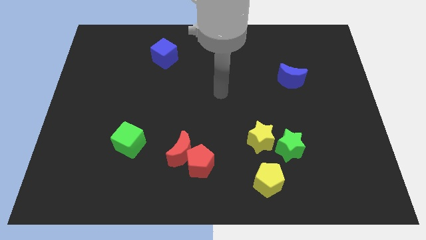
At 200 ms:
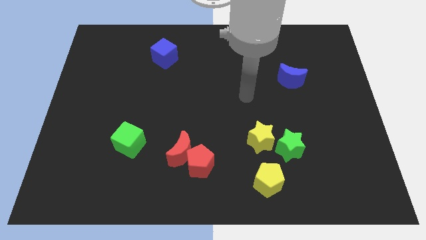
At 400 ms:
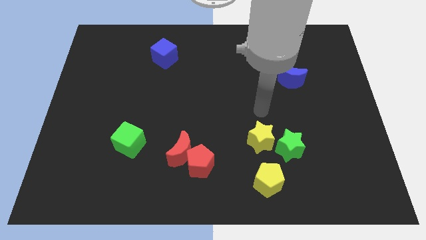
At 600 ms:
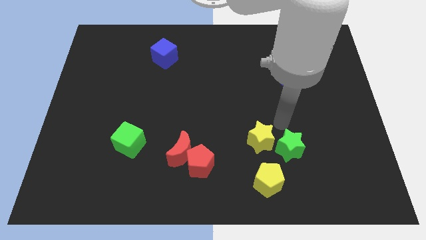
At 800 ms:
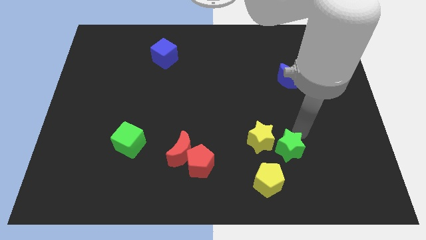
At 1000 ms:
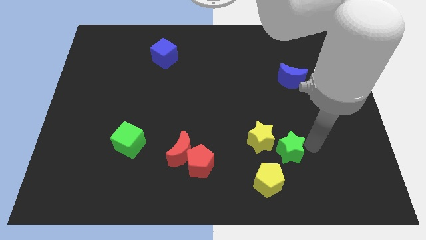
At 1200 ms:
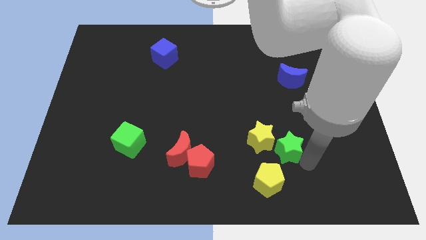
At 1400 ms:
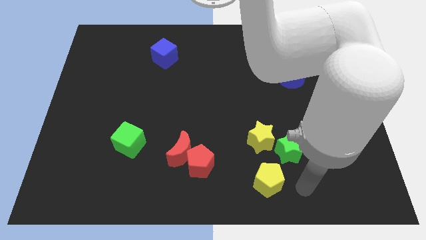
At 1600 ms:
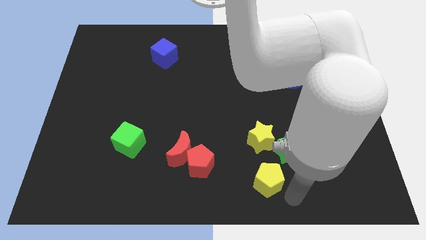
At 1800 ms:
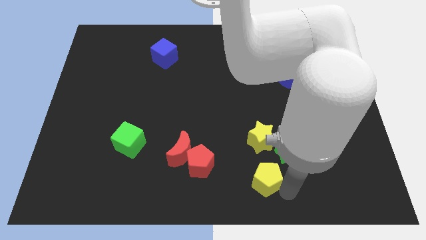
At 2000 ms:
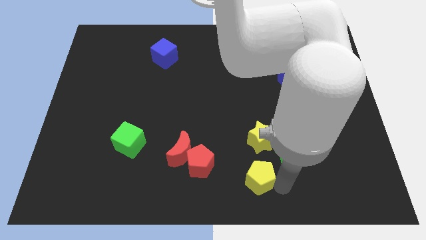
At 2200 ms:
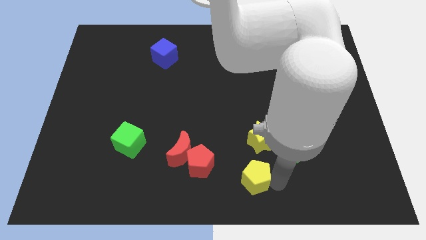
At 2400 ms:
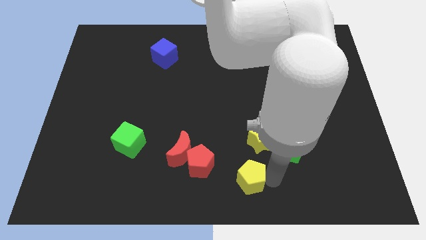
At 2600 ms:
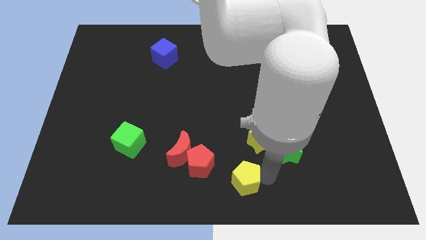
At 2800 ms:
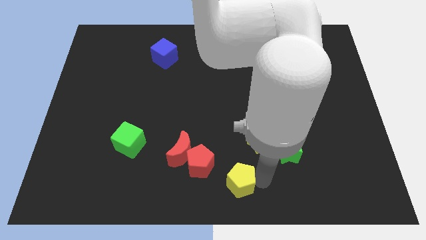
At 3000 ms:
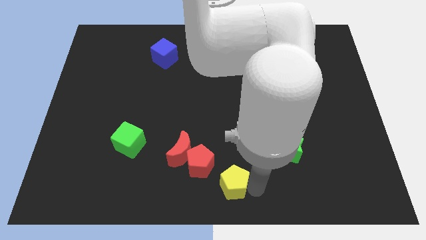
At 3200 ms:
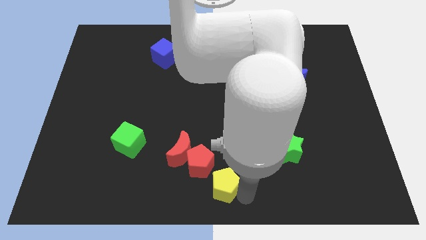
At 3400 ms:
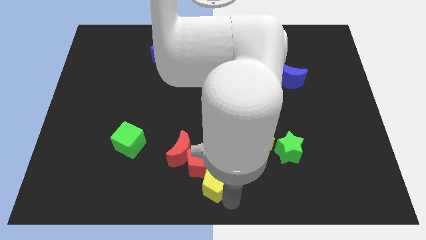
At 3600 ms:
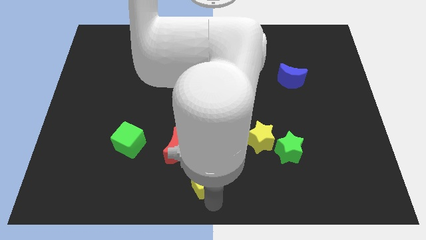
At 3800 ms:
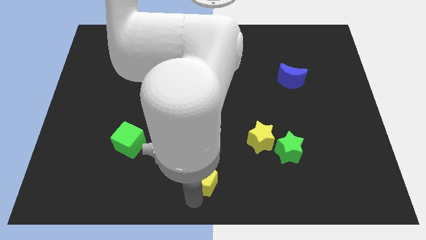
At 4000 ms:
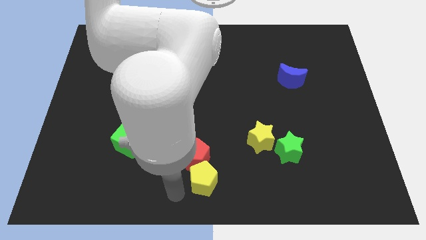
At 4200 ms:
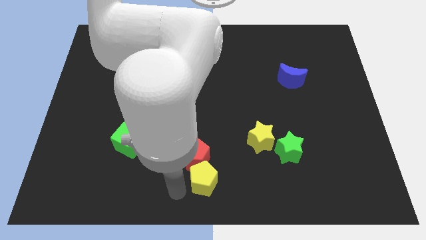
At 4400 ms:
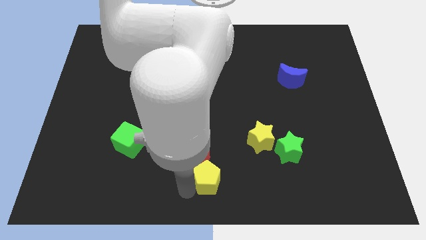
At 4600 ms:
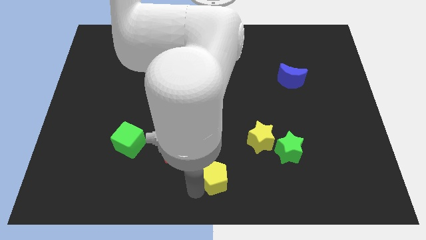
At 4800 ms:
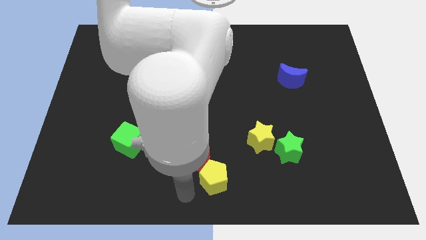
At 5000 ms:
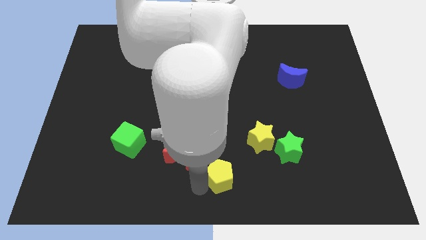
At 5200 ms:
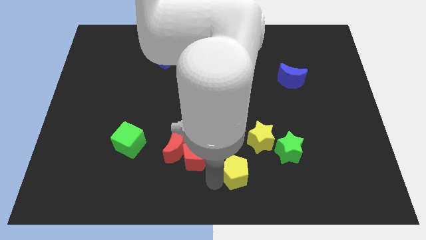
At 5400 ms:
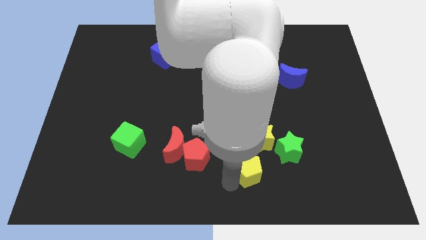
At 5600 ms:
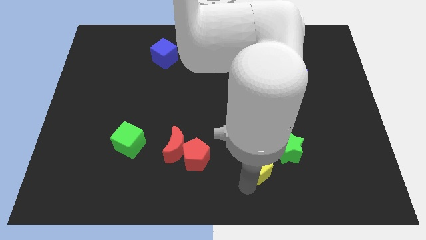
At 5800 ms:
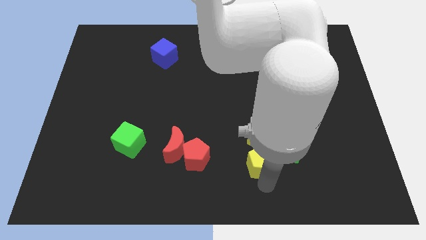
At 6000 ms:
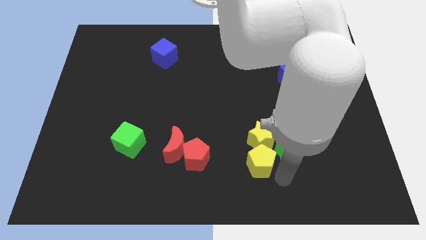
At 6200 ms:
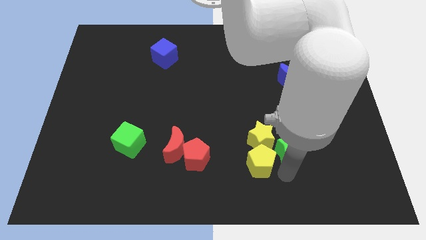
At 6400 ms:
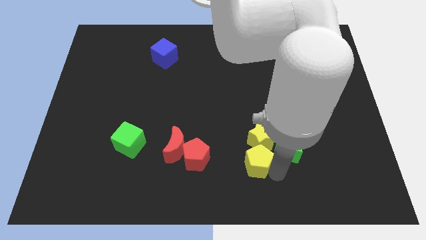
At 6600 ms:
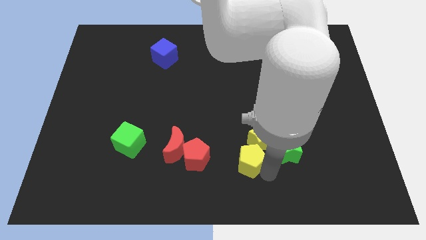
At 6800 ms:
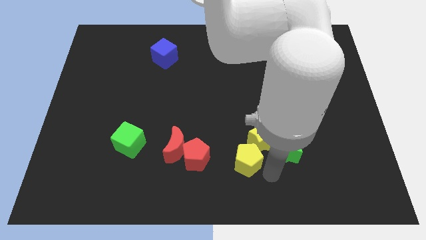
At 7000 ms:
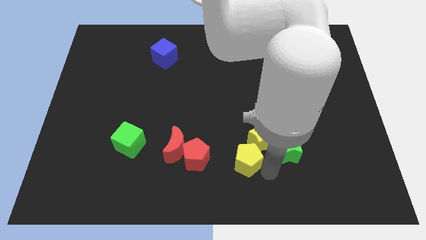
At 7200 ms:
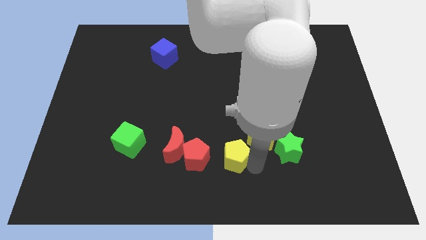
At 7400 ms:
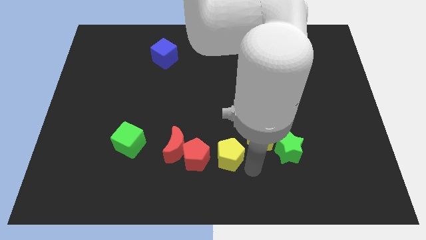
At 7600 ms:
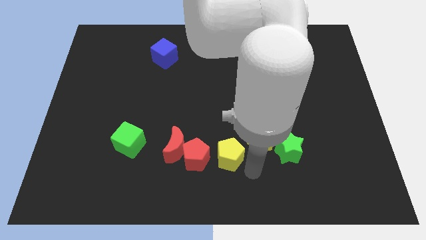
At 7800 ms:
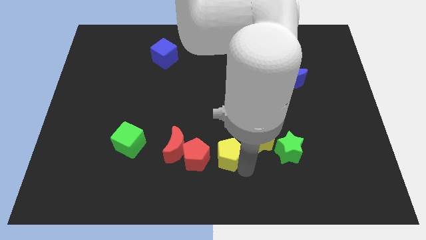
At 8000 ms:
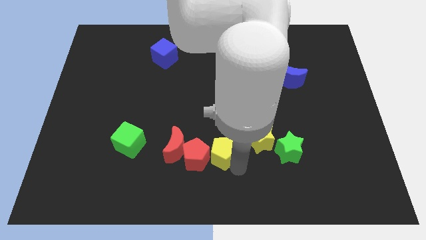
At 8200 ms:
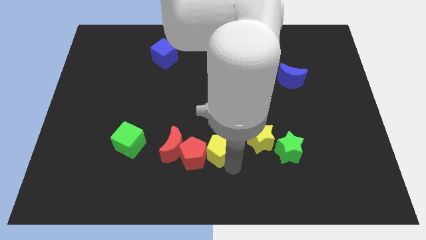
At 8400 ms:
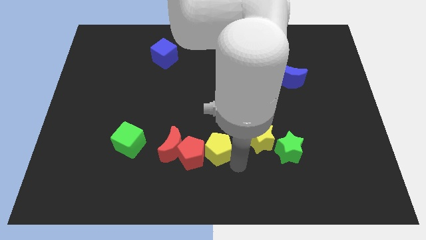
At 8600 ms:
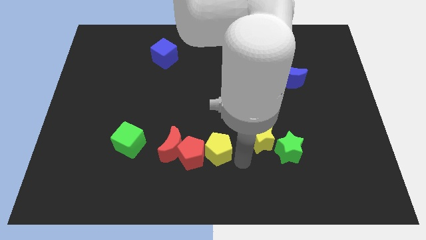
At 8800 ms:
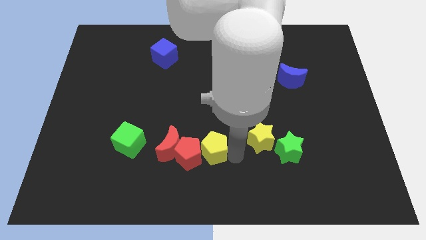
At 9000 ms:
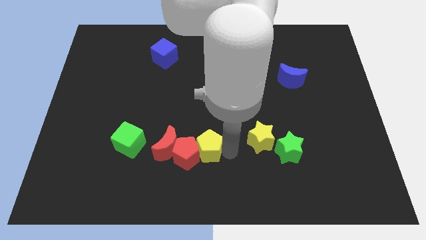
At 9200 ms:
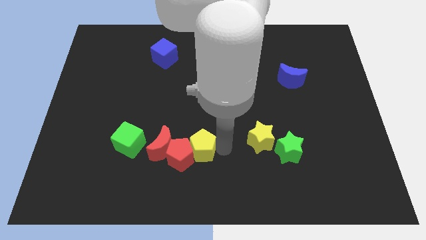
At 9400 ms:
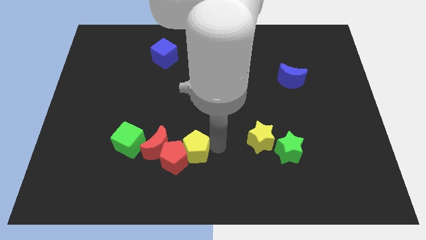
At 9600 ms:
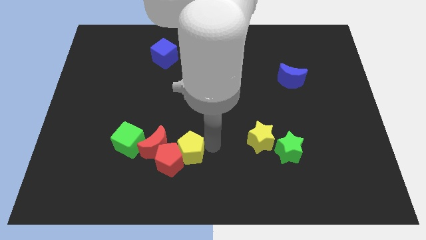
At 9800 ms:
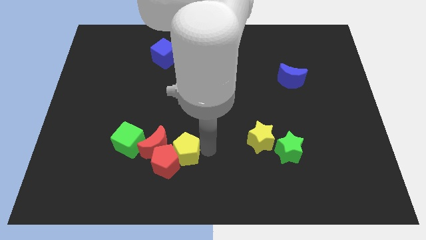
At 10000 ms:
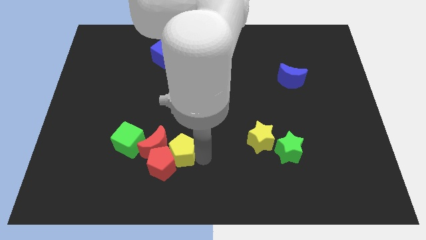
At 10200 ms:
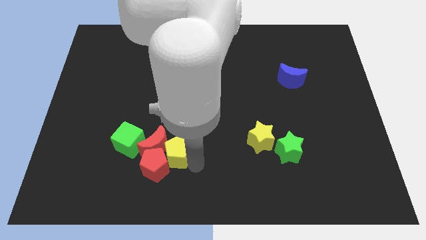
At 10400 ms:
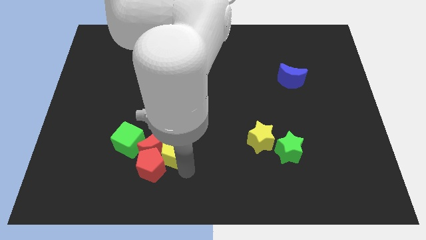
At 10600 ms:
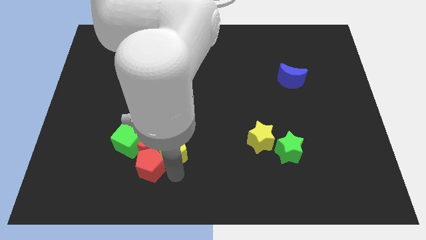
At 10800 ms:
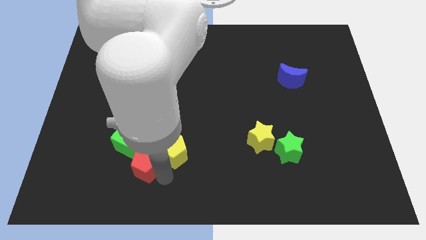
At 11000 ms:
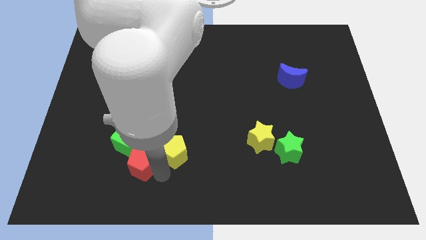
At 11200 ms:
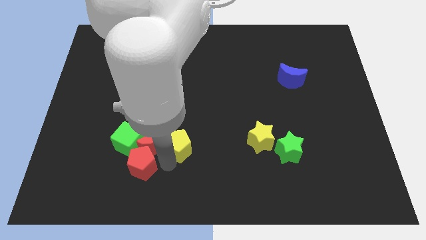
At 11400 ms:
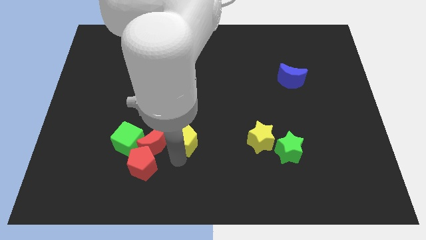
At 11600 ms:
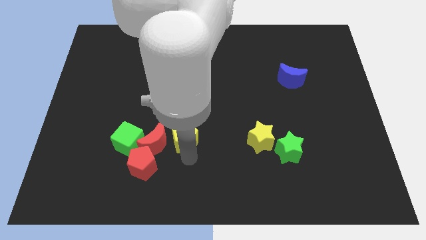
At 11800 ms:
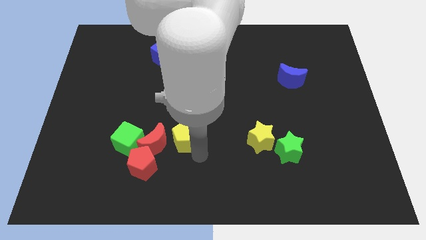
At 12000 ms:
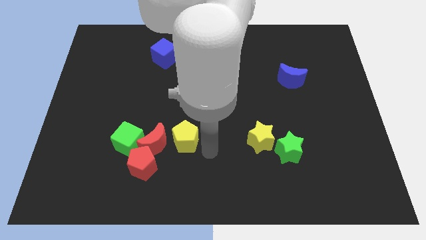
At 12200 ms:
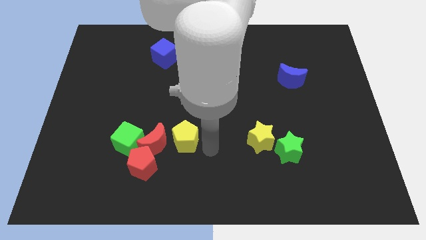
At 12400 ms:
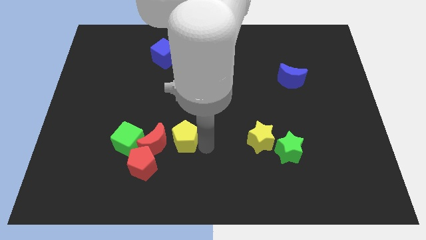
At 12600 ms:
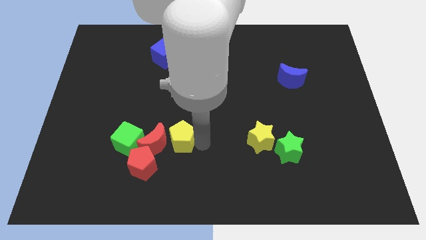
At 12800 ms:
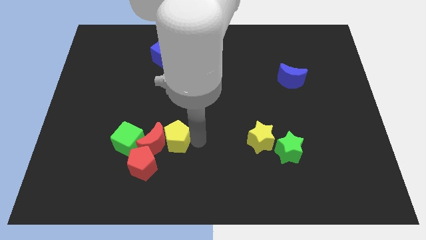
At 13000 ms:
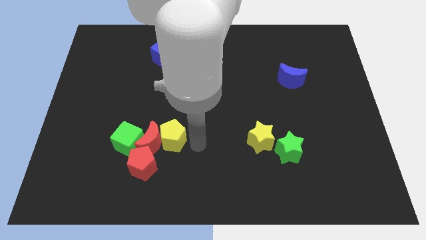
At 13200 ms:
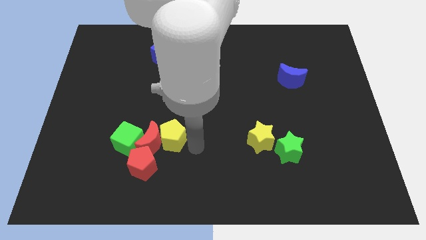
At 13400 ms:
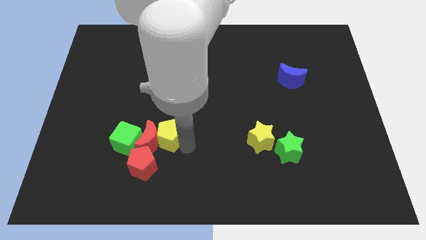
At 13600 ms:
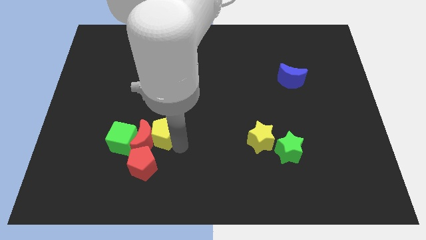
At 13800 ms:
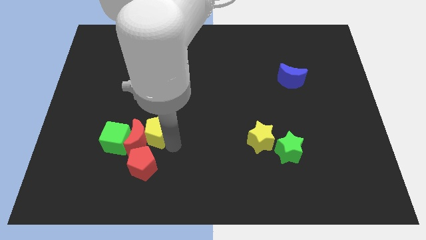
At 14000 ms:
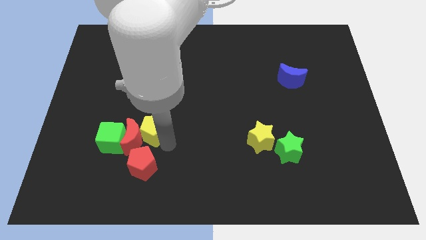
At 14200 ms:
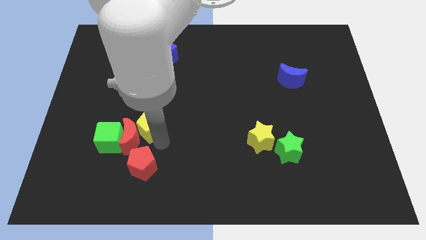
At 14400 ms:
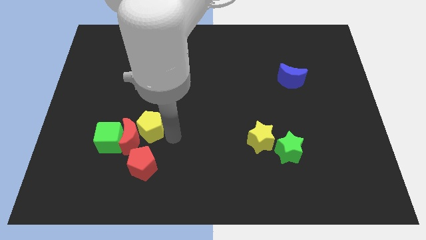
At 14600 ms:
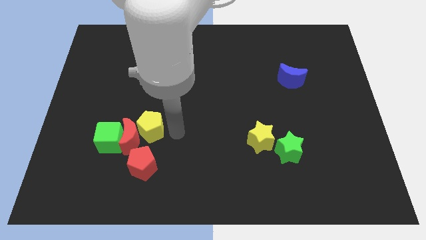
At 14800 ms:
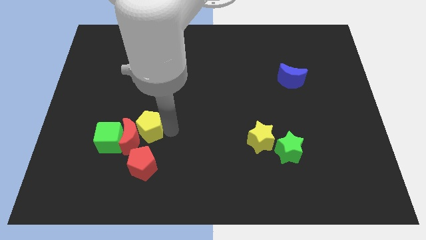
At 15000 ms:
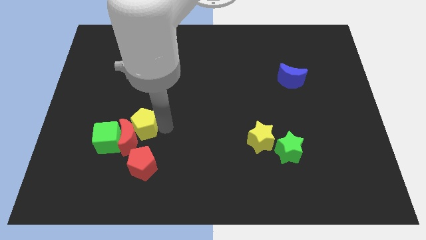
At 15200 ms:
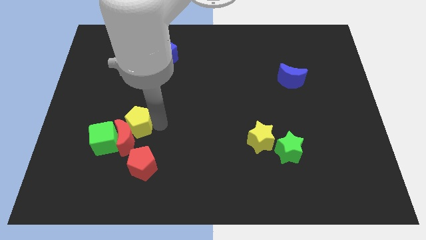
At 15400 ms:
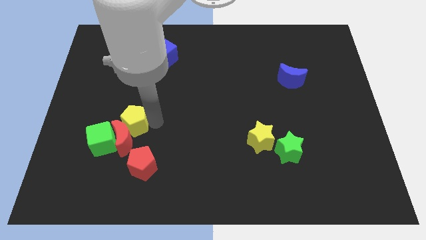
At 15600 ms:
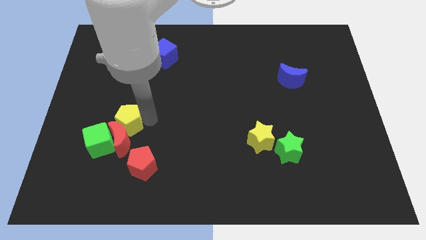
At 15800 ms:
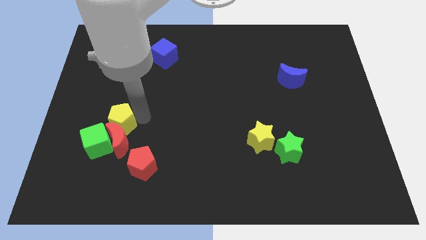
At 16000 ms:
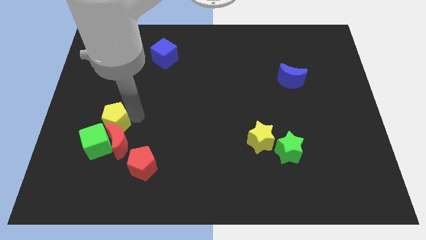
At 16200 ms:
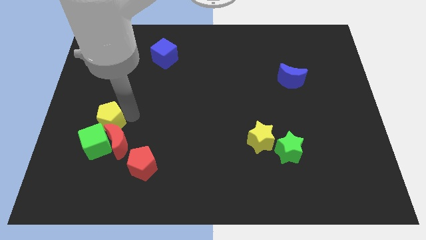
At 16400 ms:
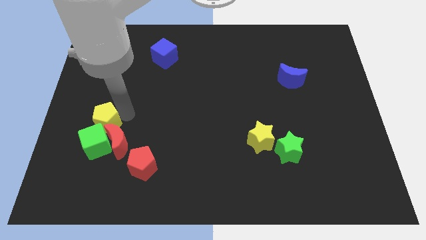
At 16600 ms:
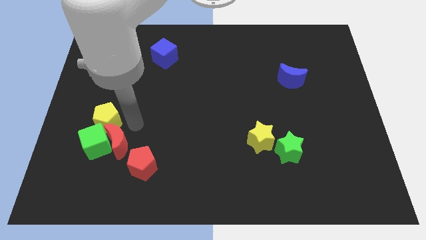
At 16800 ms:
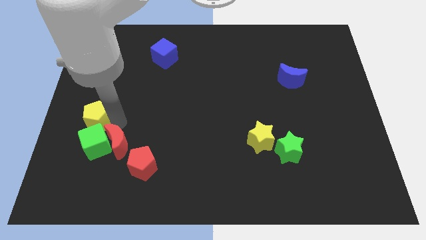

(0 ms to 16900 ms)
move the yellow pentagon to the left side
